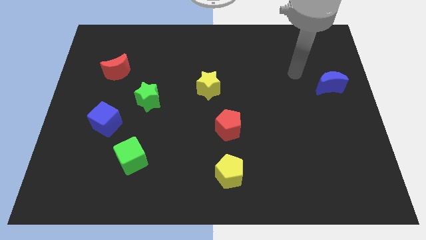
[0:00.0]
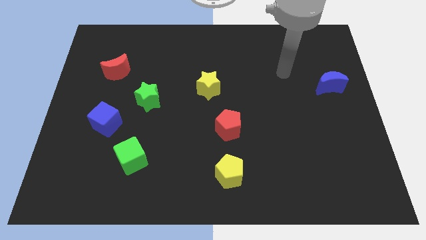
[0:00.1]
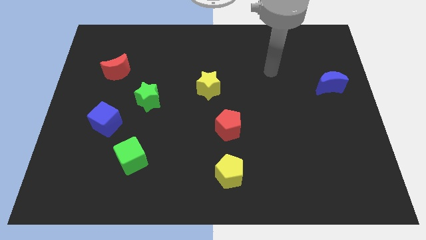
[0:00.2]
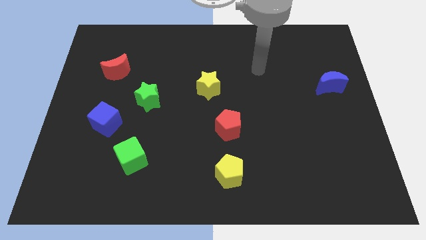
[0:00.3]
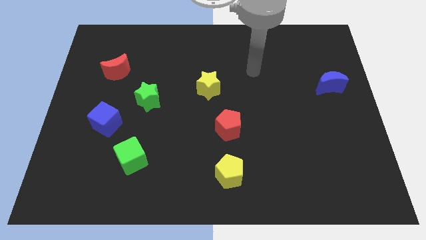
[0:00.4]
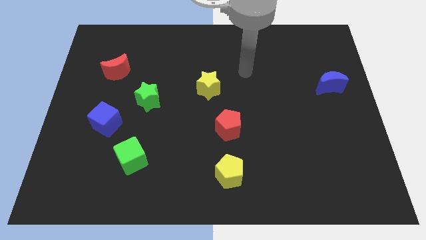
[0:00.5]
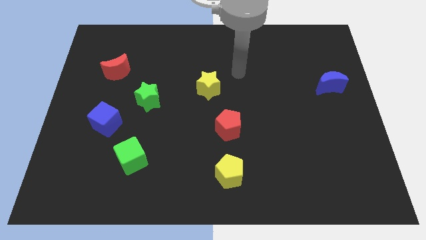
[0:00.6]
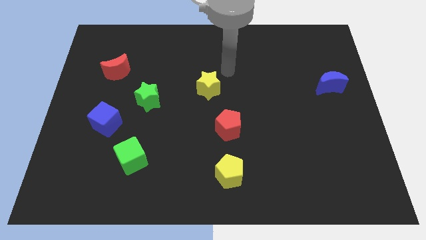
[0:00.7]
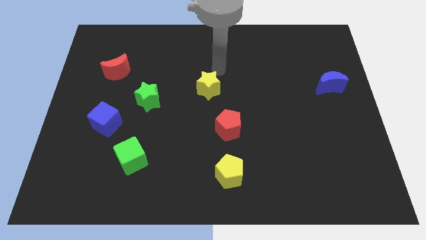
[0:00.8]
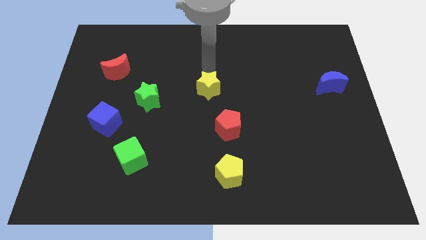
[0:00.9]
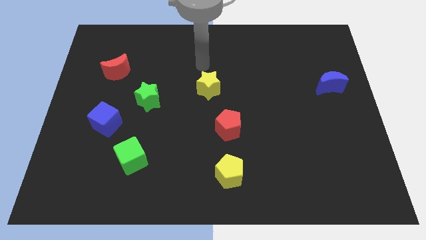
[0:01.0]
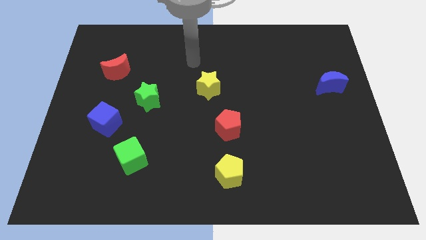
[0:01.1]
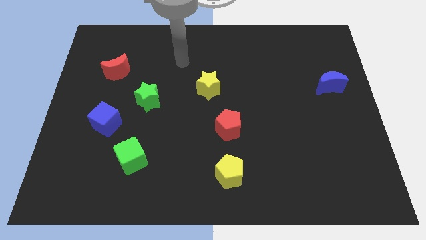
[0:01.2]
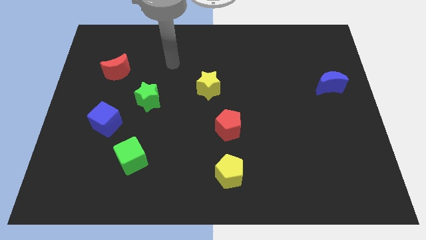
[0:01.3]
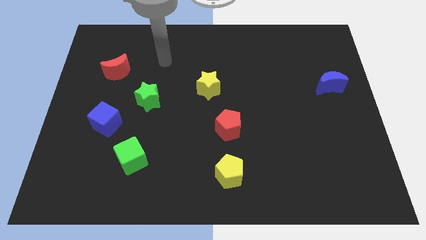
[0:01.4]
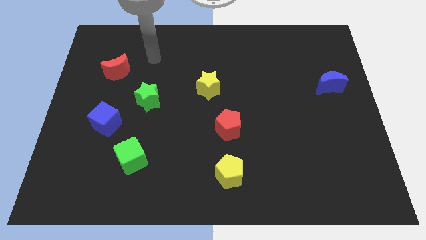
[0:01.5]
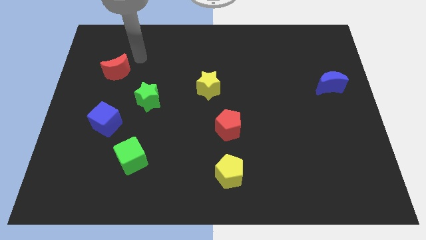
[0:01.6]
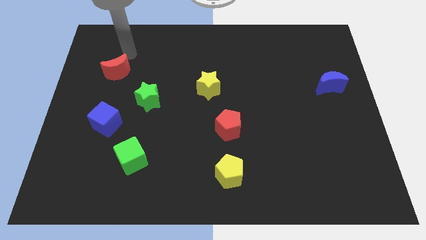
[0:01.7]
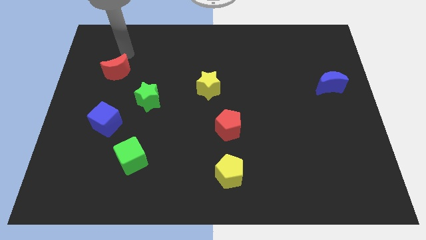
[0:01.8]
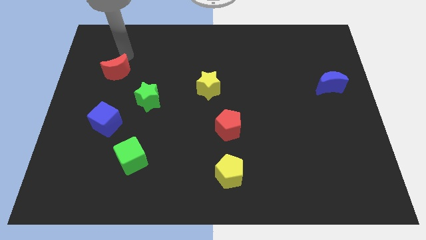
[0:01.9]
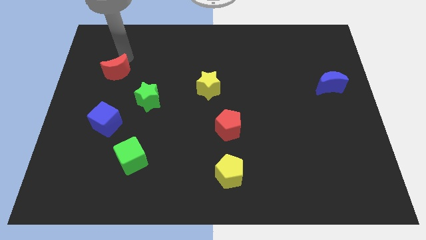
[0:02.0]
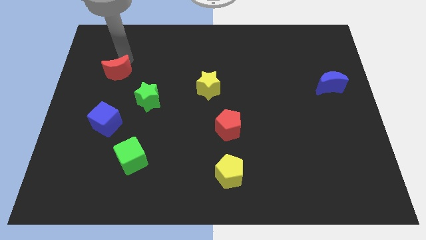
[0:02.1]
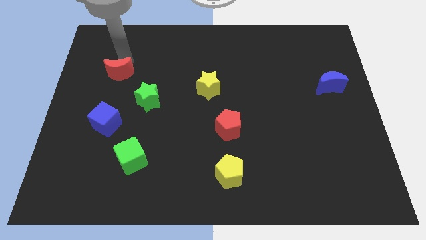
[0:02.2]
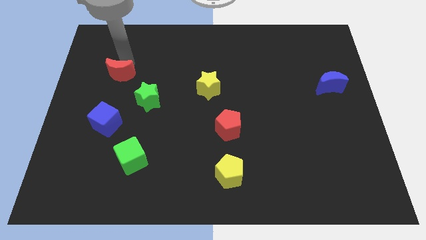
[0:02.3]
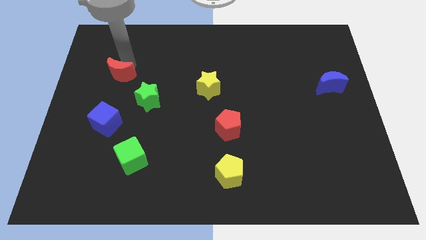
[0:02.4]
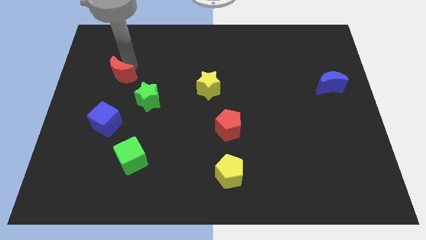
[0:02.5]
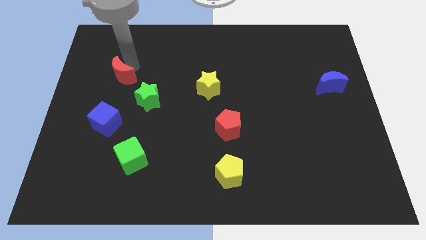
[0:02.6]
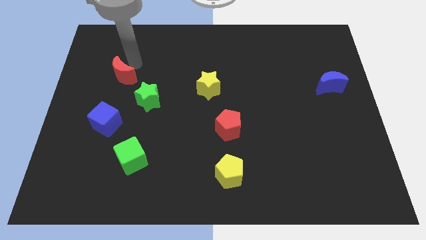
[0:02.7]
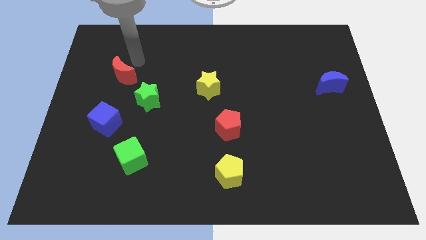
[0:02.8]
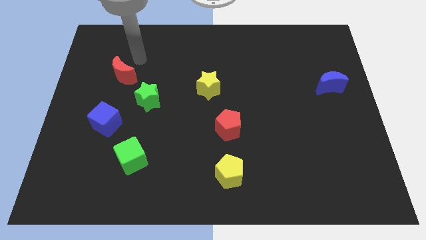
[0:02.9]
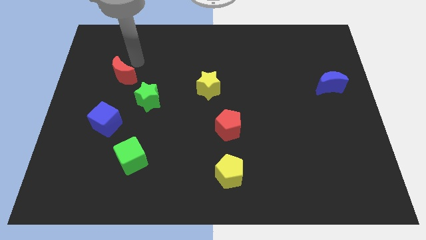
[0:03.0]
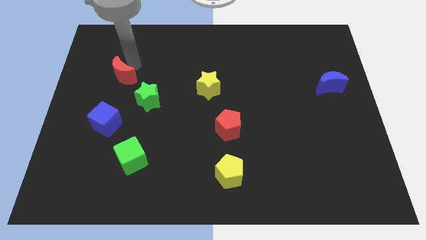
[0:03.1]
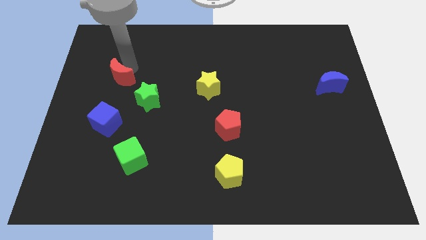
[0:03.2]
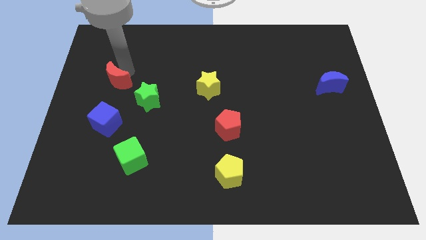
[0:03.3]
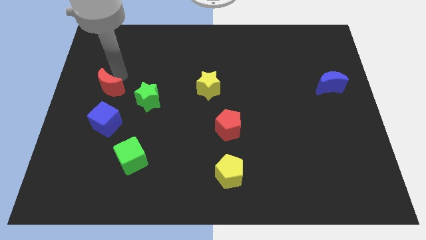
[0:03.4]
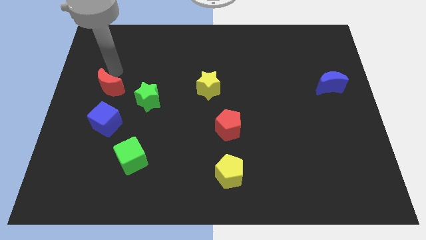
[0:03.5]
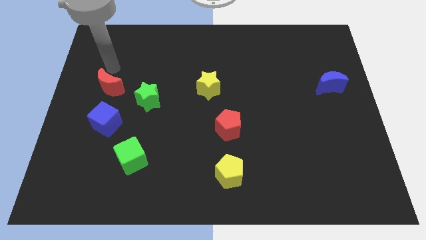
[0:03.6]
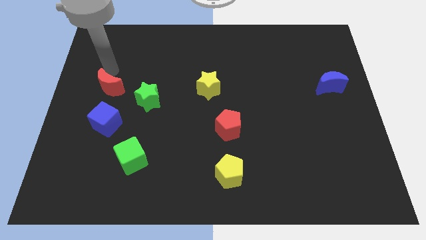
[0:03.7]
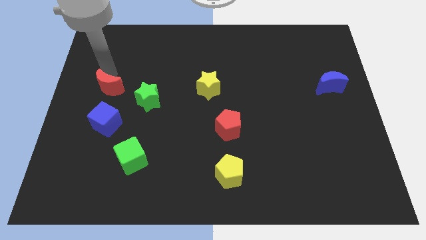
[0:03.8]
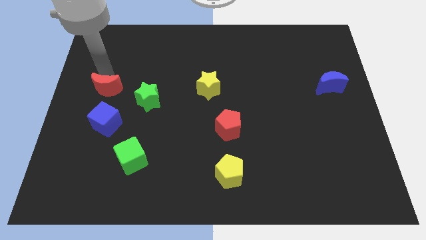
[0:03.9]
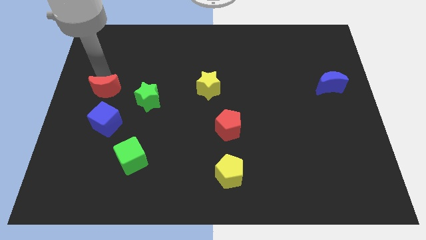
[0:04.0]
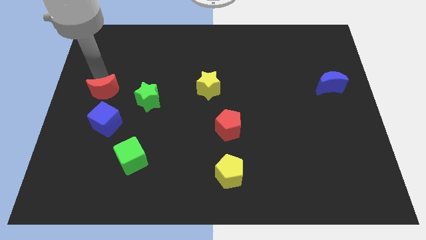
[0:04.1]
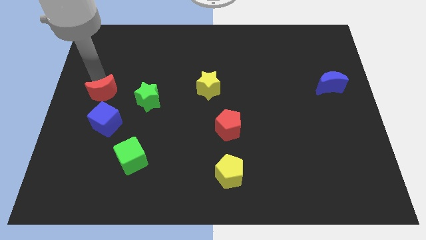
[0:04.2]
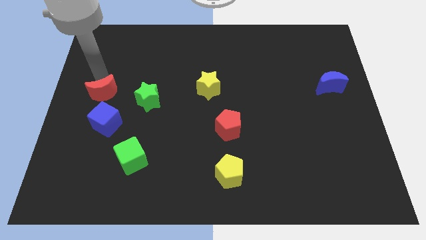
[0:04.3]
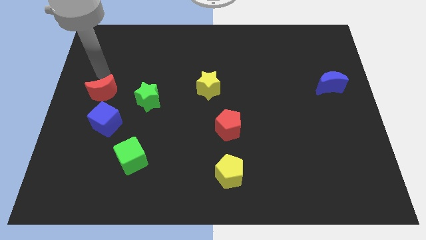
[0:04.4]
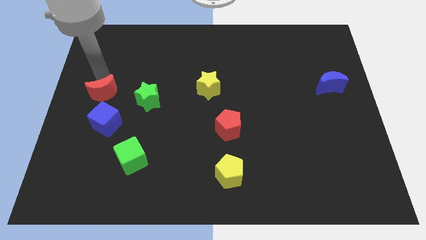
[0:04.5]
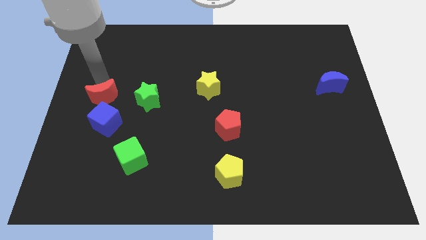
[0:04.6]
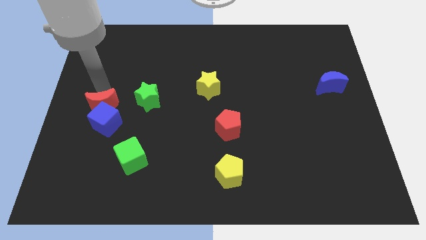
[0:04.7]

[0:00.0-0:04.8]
slide the red moon to the blue cube

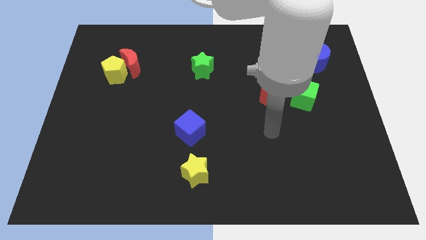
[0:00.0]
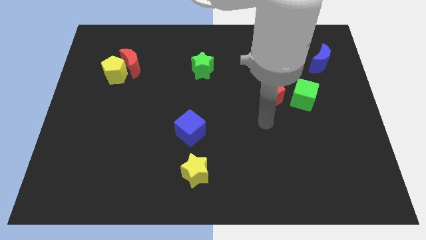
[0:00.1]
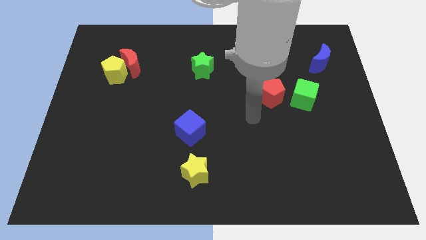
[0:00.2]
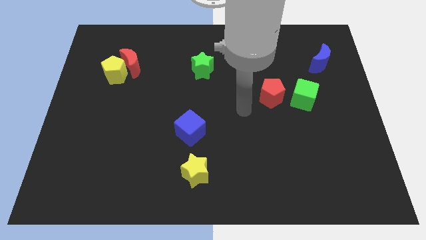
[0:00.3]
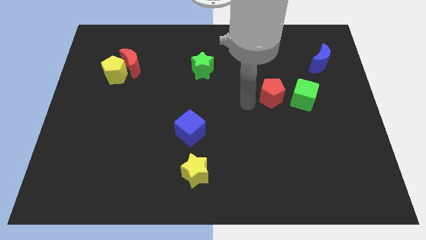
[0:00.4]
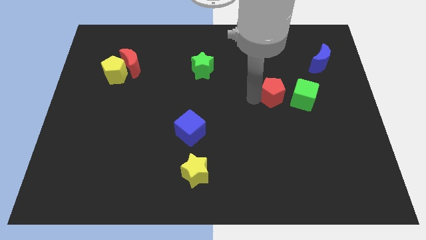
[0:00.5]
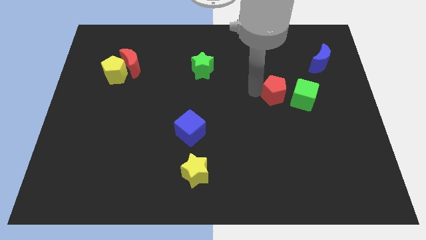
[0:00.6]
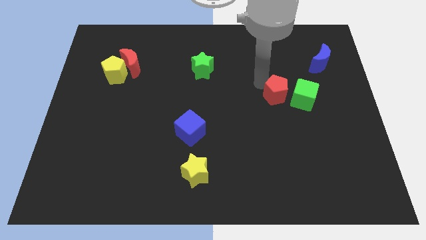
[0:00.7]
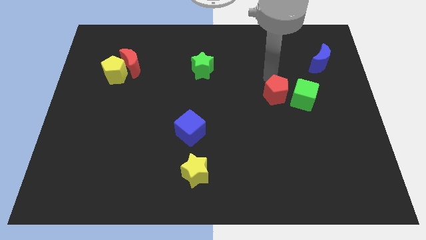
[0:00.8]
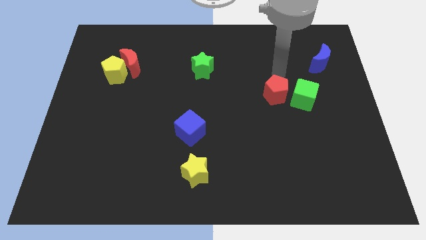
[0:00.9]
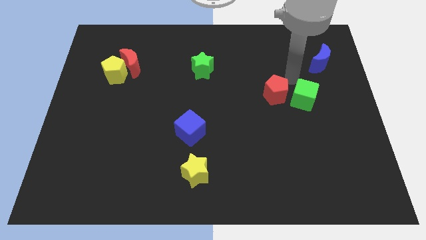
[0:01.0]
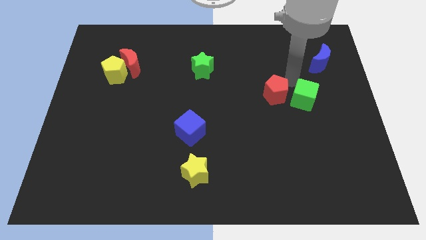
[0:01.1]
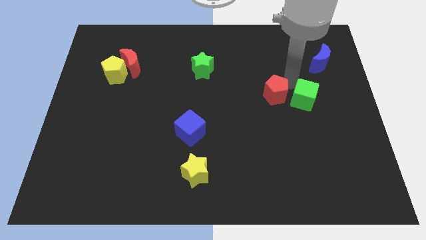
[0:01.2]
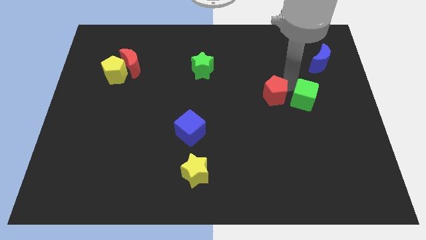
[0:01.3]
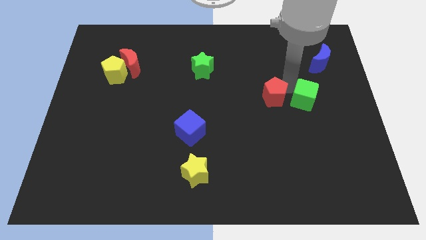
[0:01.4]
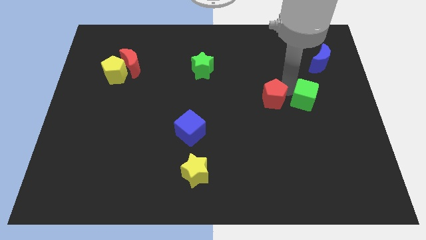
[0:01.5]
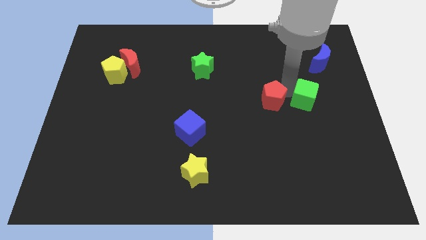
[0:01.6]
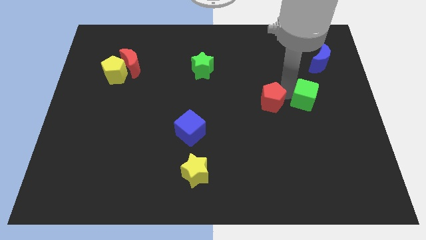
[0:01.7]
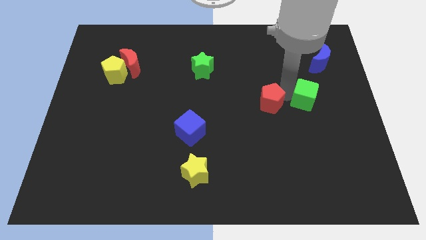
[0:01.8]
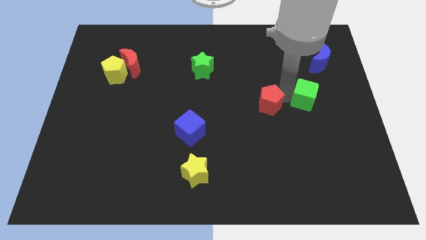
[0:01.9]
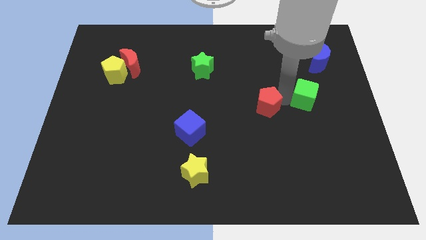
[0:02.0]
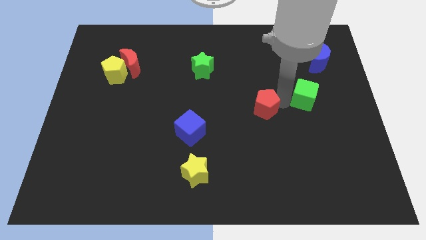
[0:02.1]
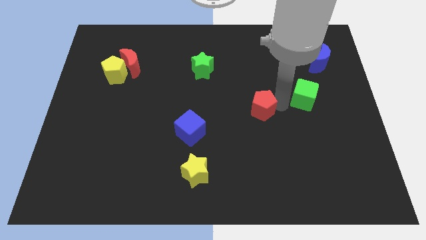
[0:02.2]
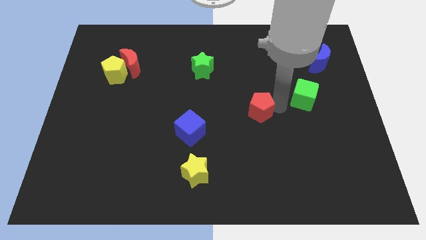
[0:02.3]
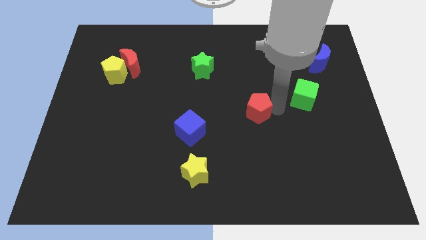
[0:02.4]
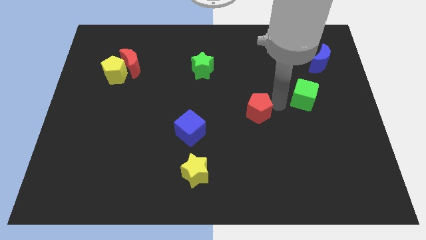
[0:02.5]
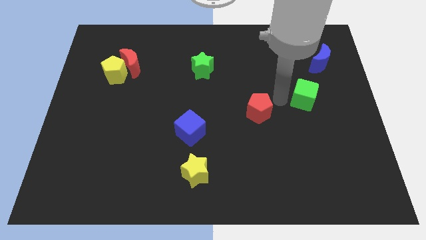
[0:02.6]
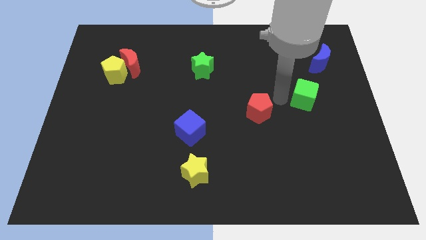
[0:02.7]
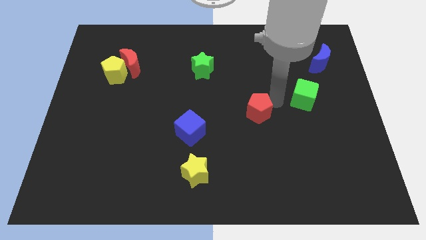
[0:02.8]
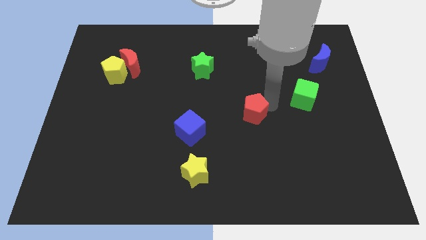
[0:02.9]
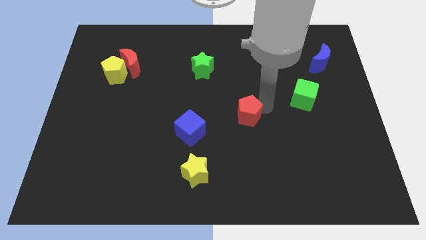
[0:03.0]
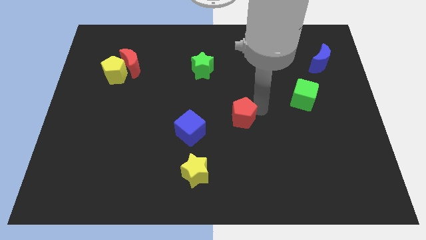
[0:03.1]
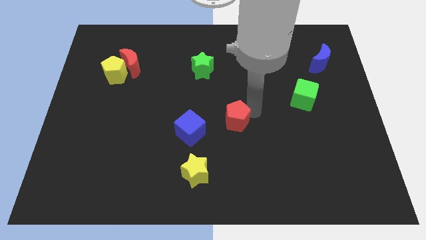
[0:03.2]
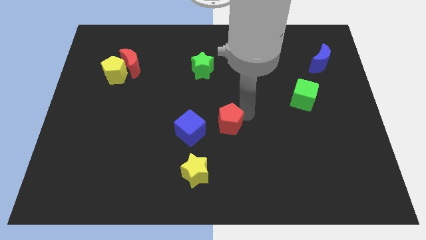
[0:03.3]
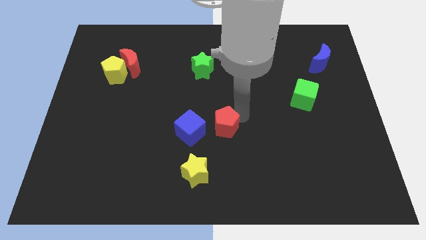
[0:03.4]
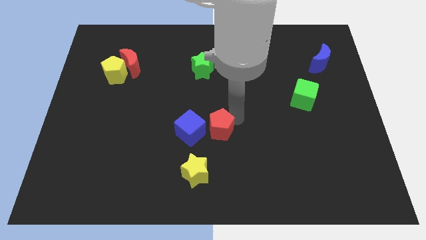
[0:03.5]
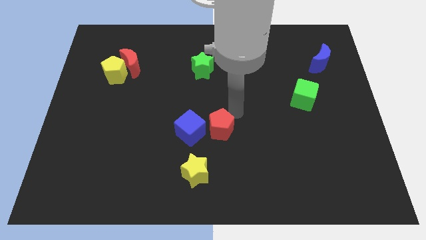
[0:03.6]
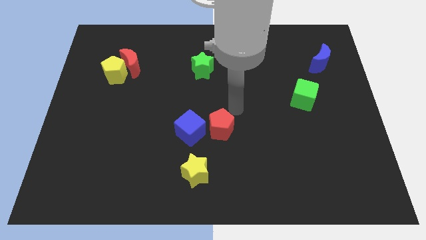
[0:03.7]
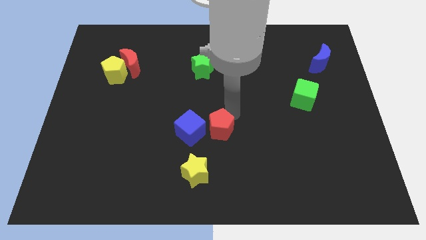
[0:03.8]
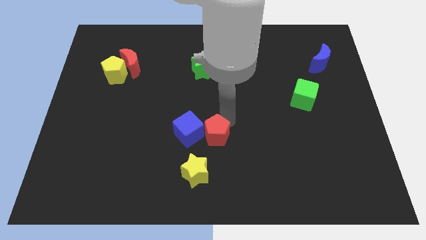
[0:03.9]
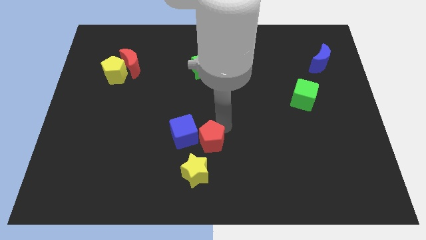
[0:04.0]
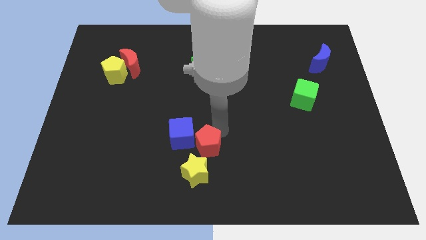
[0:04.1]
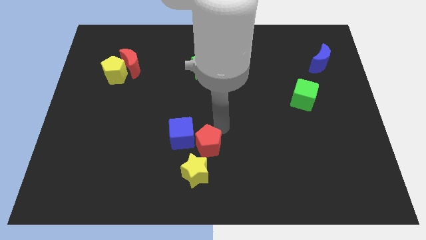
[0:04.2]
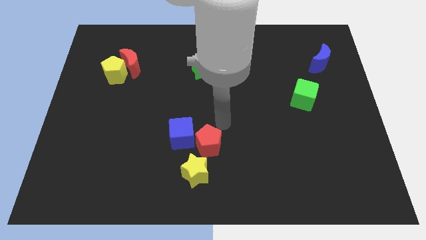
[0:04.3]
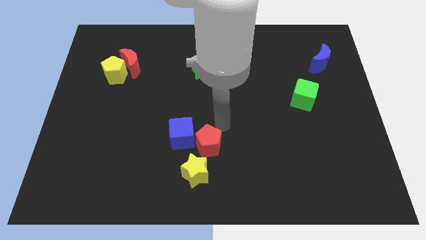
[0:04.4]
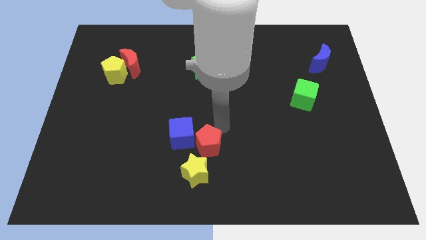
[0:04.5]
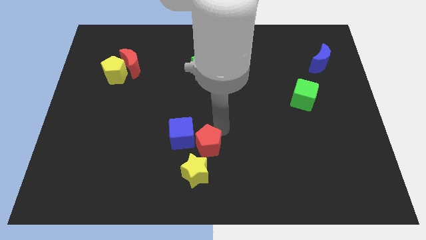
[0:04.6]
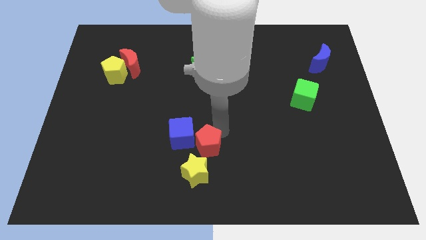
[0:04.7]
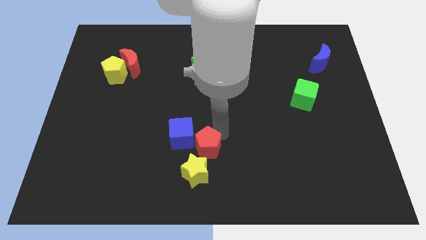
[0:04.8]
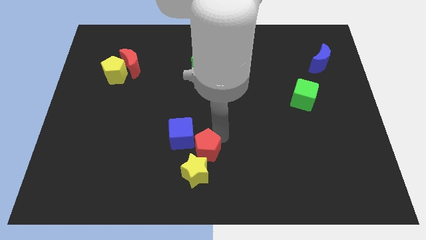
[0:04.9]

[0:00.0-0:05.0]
push the red pentagon to the yellow star
